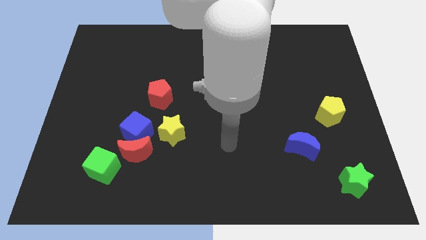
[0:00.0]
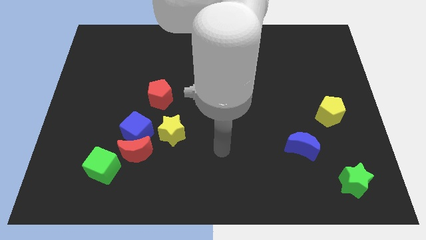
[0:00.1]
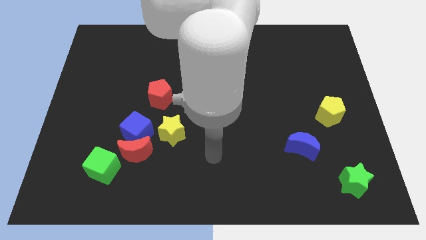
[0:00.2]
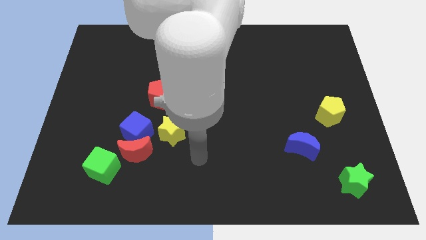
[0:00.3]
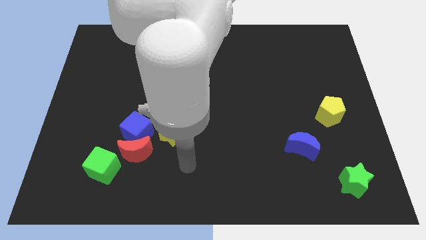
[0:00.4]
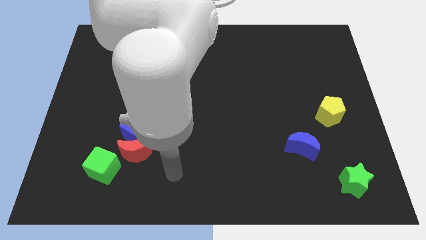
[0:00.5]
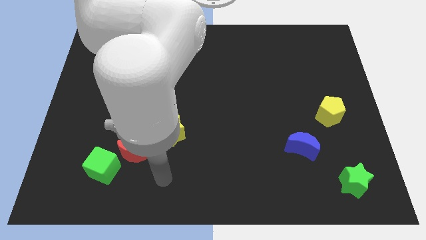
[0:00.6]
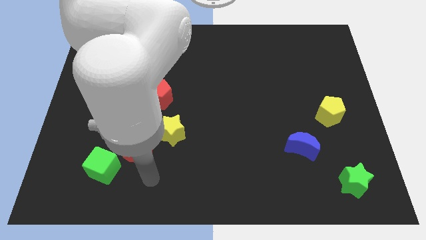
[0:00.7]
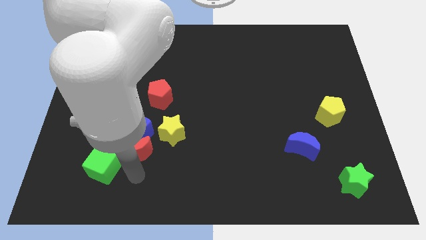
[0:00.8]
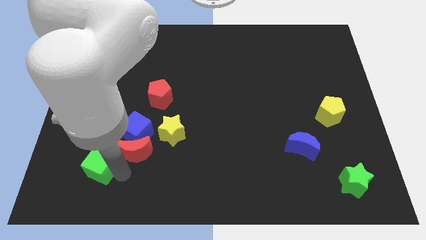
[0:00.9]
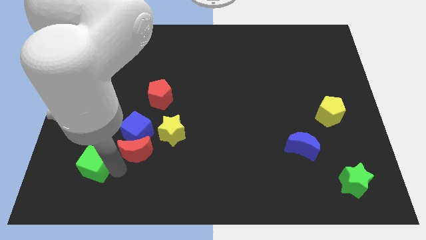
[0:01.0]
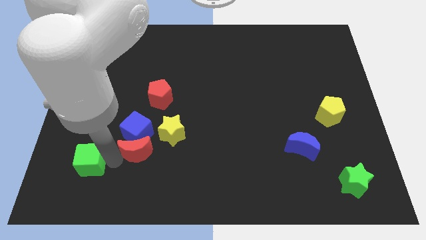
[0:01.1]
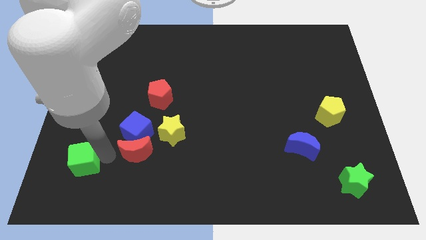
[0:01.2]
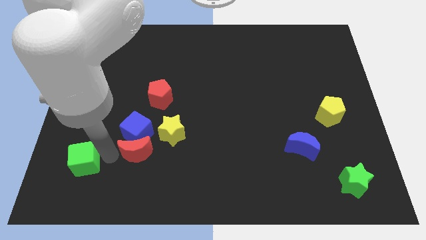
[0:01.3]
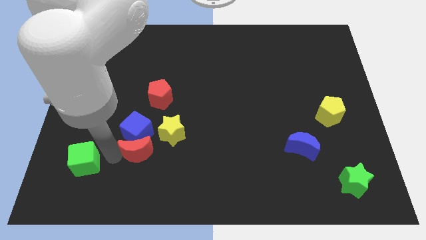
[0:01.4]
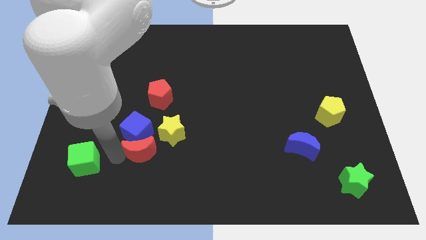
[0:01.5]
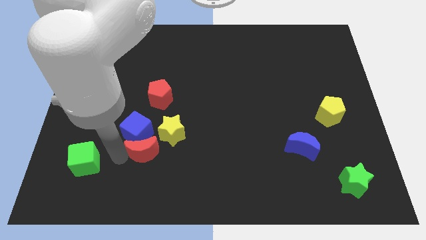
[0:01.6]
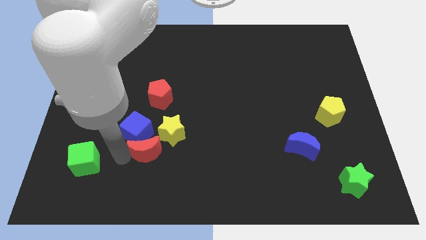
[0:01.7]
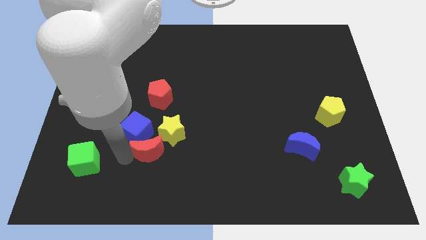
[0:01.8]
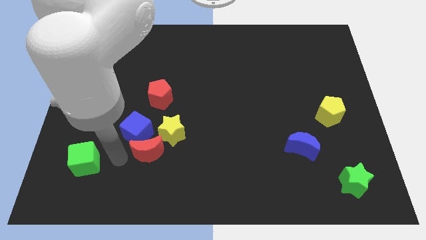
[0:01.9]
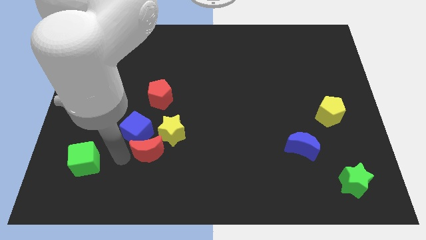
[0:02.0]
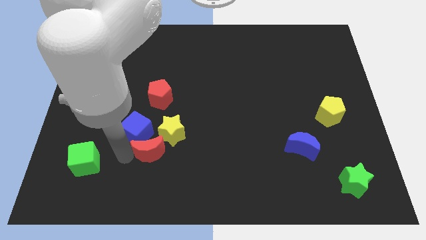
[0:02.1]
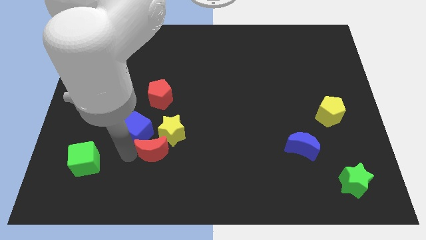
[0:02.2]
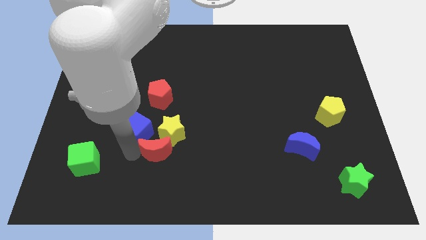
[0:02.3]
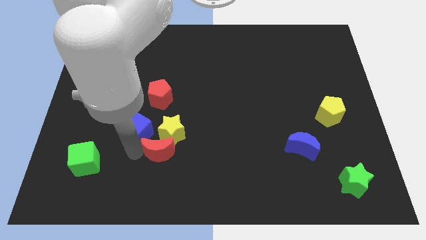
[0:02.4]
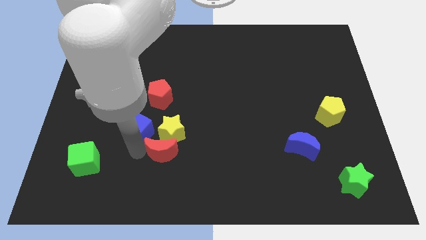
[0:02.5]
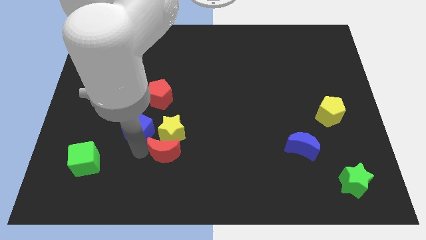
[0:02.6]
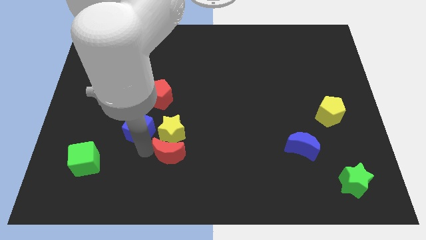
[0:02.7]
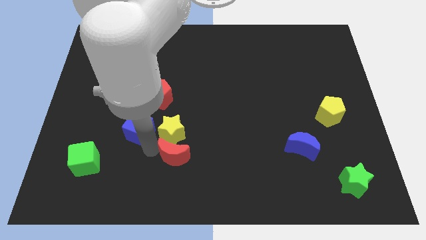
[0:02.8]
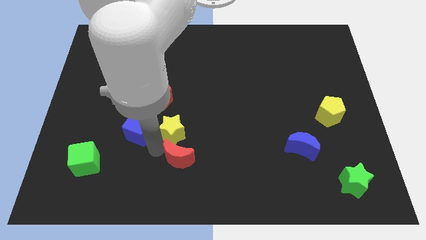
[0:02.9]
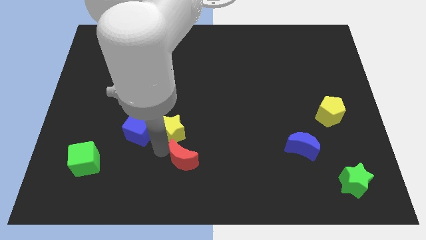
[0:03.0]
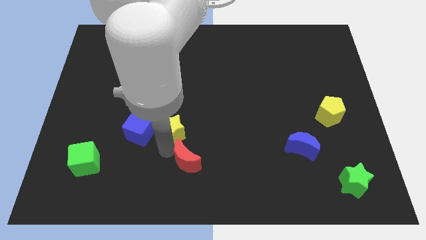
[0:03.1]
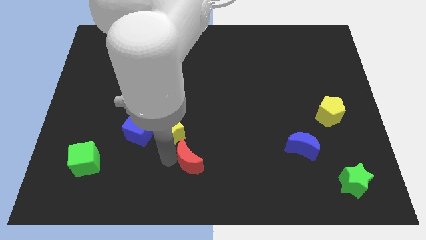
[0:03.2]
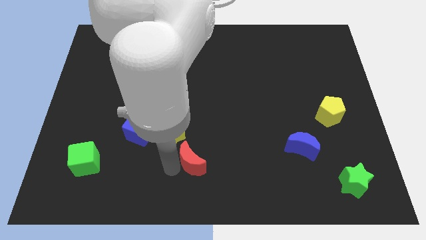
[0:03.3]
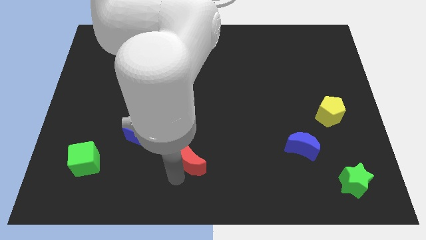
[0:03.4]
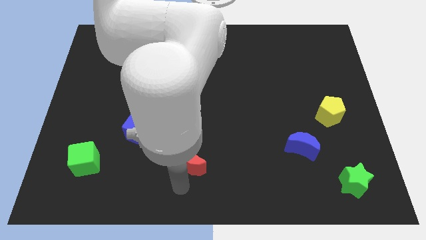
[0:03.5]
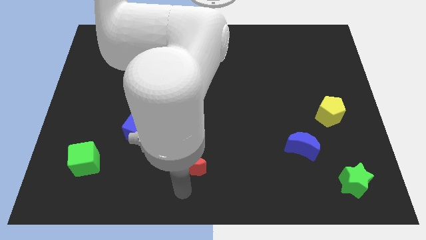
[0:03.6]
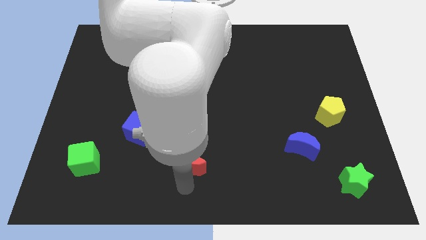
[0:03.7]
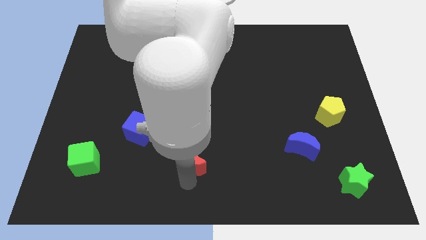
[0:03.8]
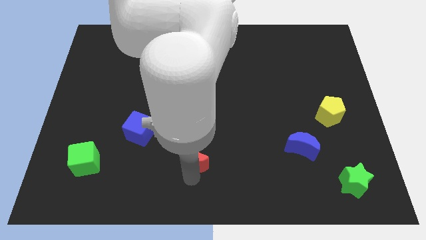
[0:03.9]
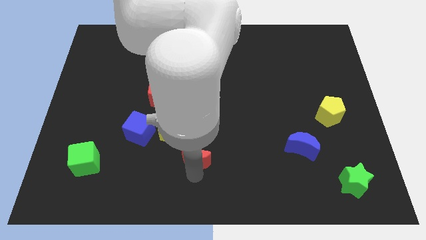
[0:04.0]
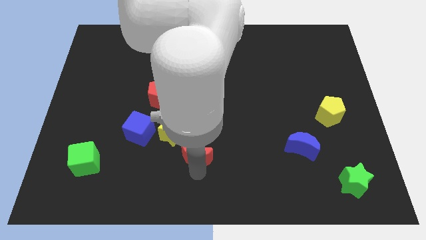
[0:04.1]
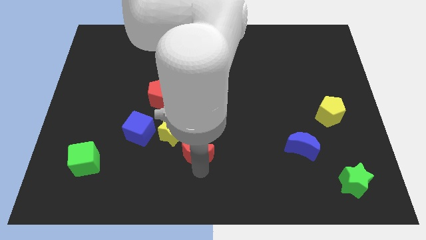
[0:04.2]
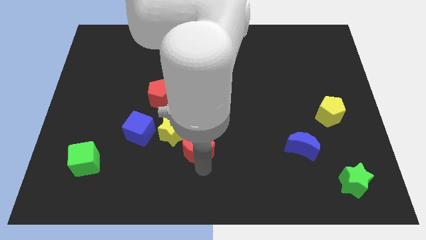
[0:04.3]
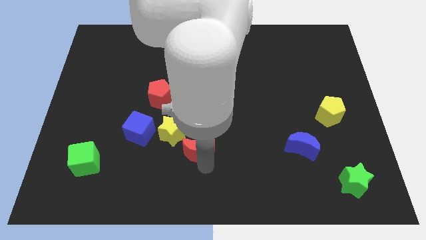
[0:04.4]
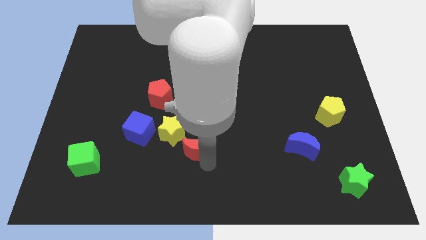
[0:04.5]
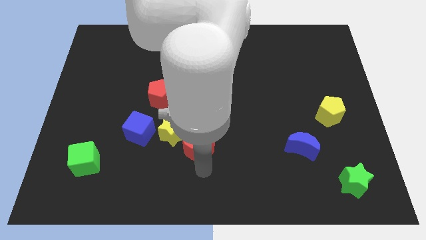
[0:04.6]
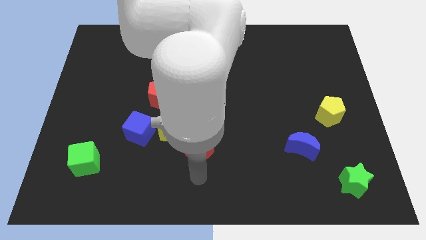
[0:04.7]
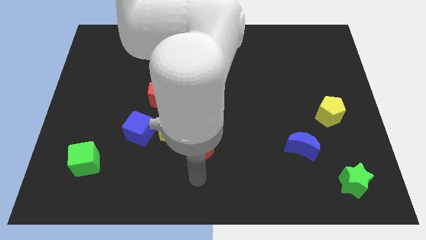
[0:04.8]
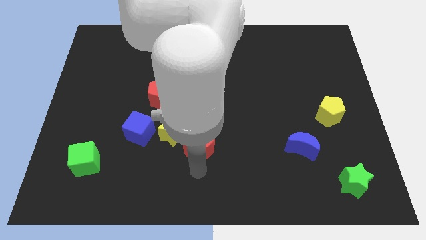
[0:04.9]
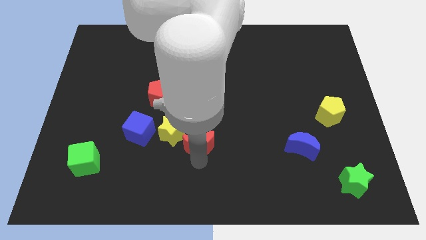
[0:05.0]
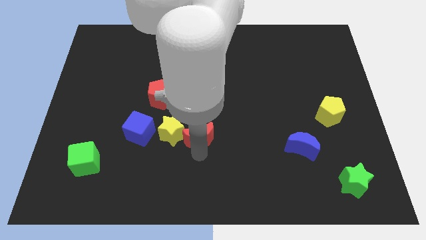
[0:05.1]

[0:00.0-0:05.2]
put the red moon to the middle
